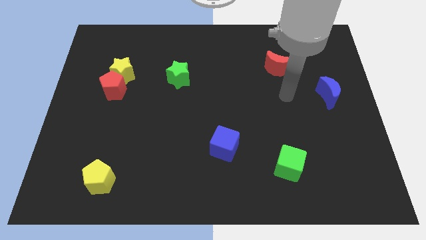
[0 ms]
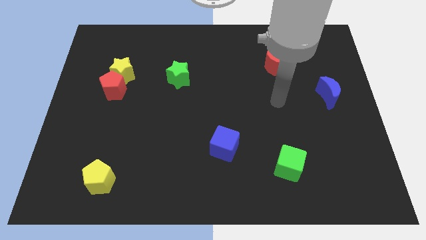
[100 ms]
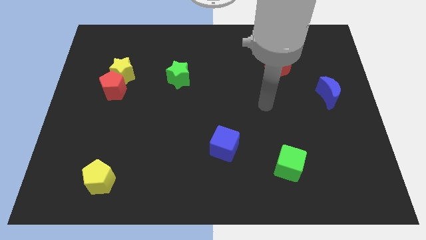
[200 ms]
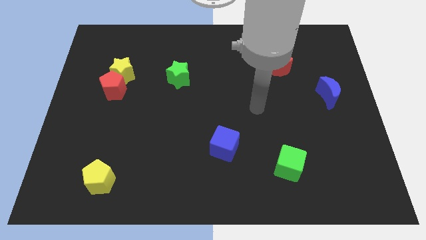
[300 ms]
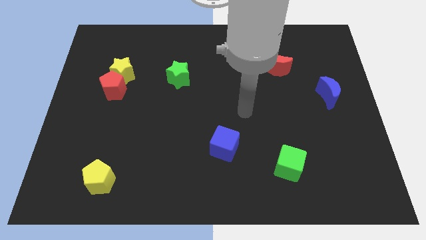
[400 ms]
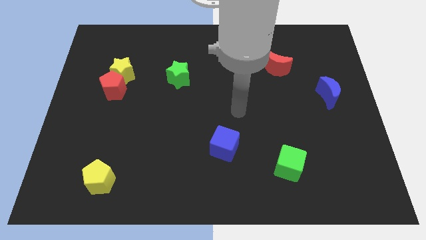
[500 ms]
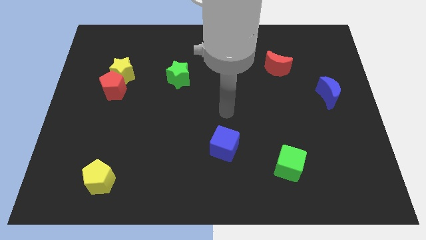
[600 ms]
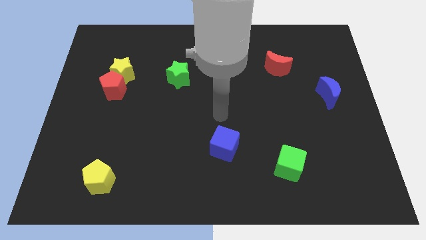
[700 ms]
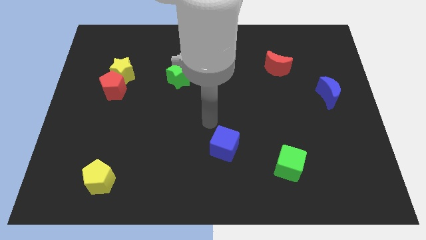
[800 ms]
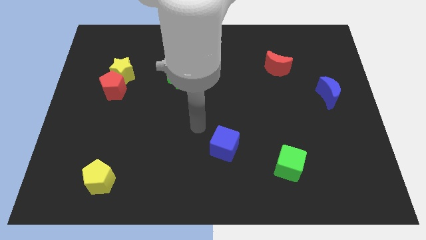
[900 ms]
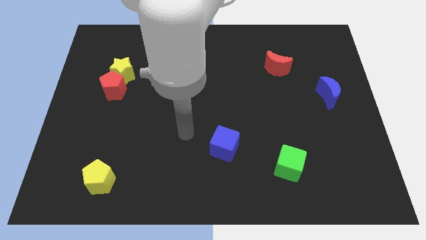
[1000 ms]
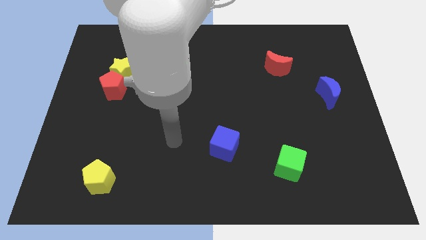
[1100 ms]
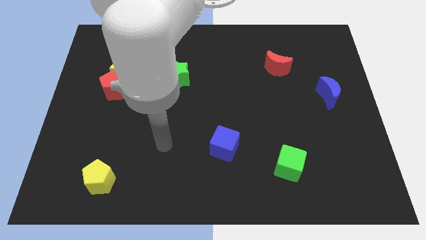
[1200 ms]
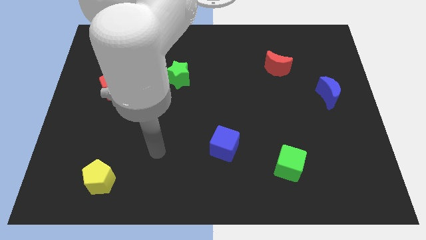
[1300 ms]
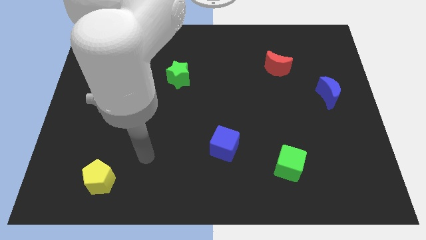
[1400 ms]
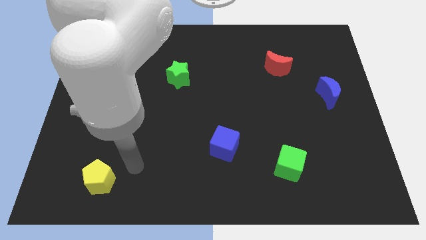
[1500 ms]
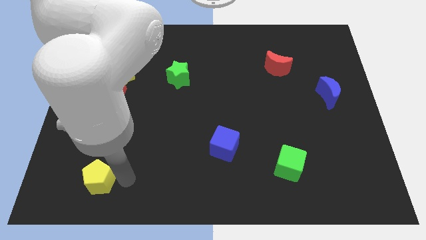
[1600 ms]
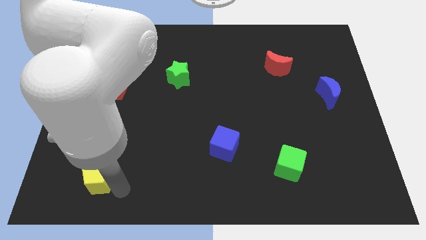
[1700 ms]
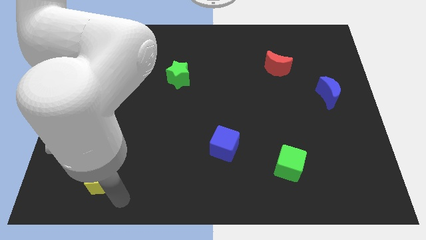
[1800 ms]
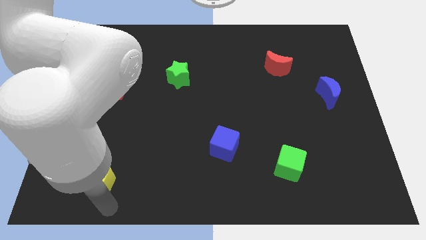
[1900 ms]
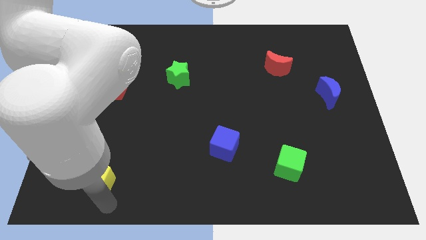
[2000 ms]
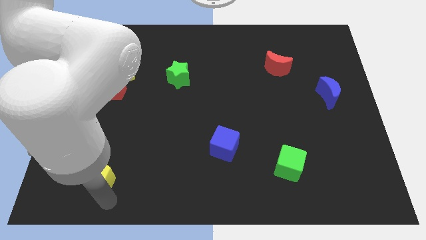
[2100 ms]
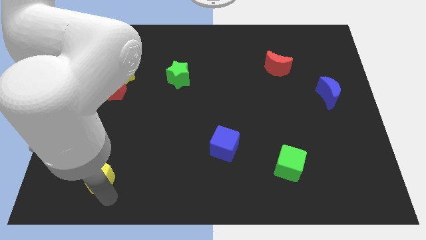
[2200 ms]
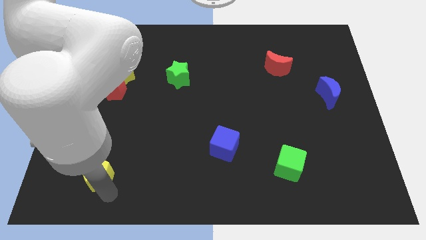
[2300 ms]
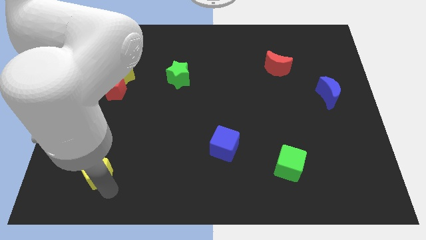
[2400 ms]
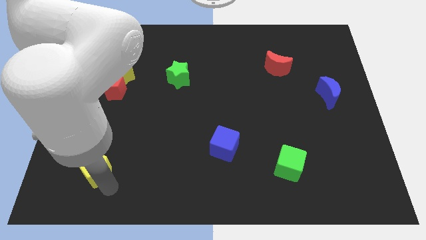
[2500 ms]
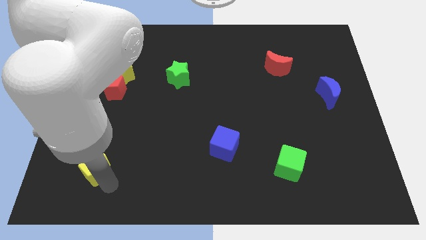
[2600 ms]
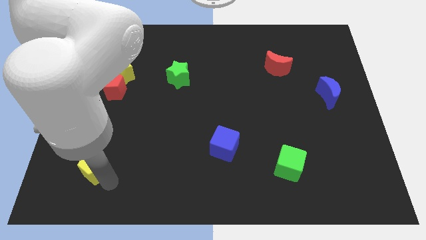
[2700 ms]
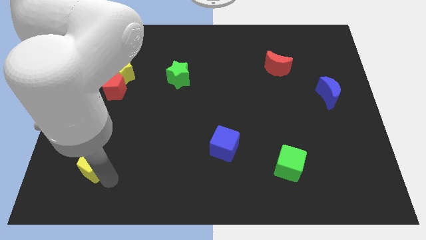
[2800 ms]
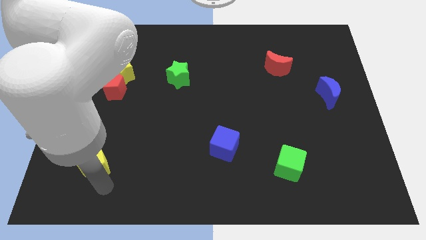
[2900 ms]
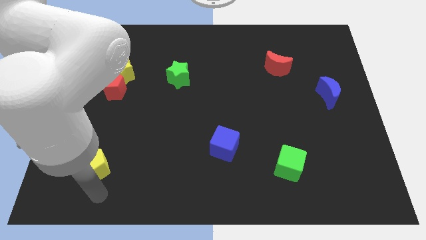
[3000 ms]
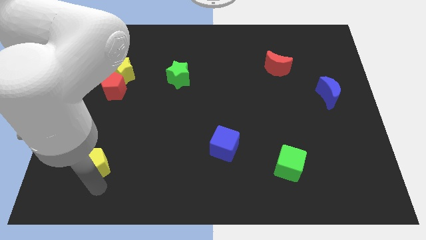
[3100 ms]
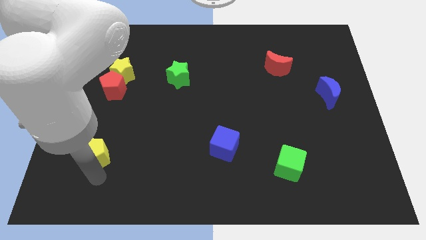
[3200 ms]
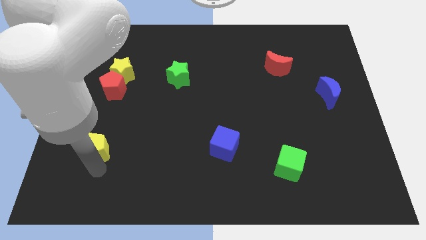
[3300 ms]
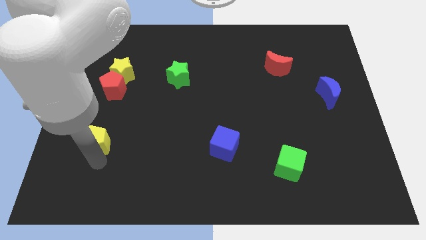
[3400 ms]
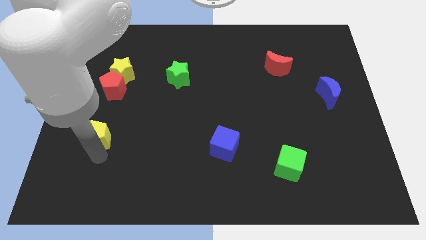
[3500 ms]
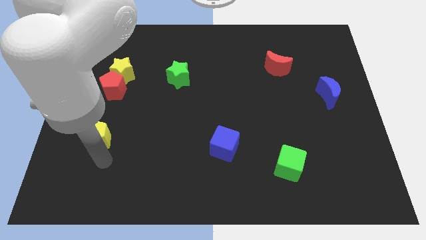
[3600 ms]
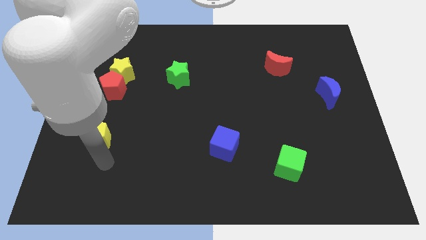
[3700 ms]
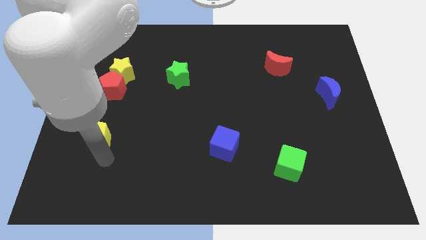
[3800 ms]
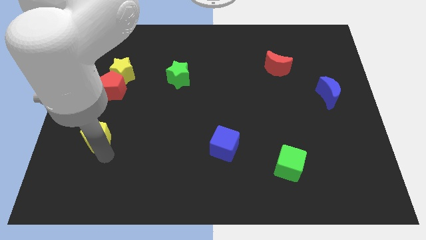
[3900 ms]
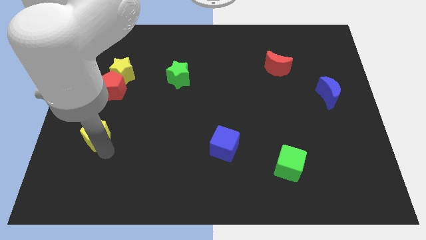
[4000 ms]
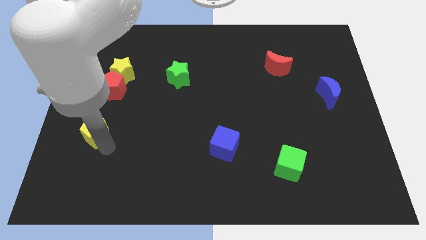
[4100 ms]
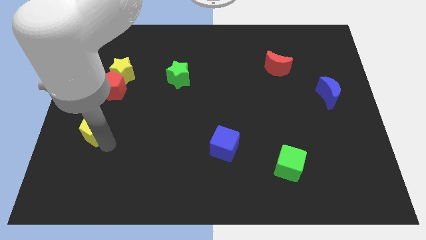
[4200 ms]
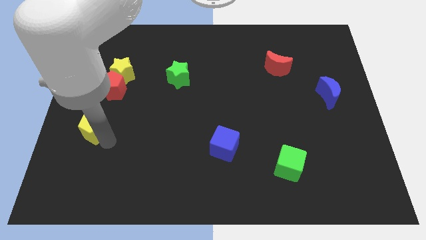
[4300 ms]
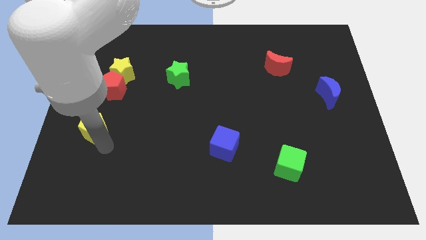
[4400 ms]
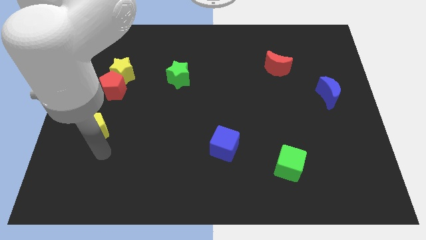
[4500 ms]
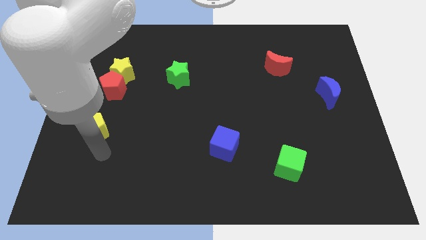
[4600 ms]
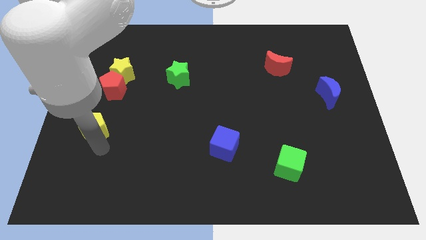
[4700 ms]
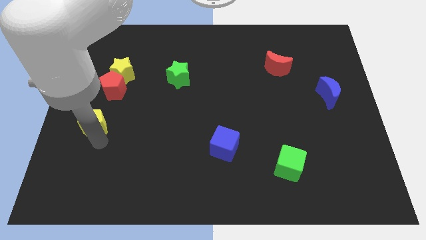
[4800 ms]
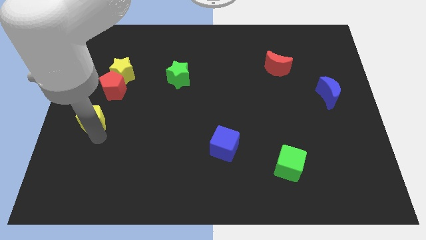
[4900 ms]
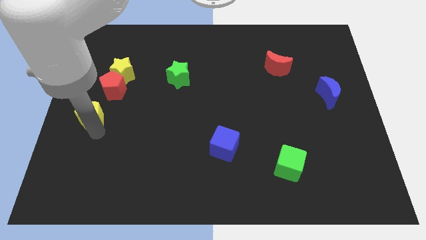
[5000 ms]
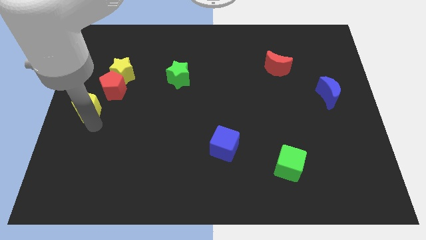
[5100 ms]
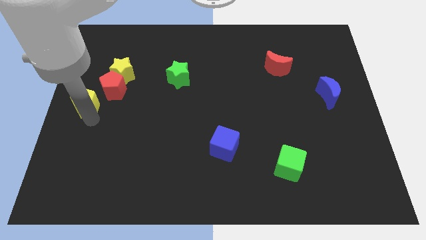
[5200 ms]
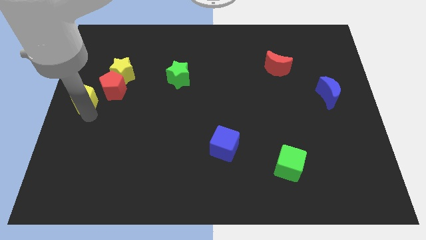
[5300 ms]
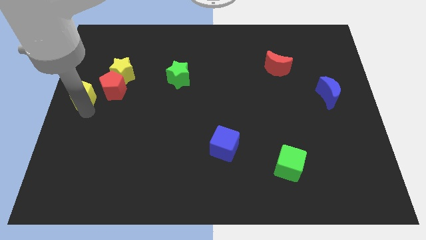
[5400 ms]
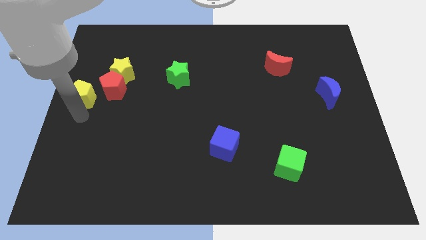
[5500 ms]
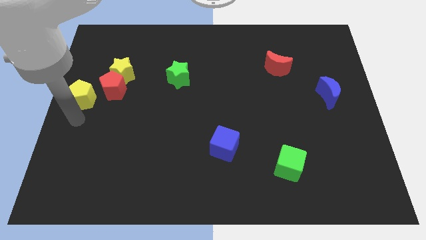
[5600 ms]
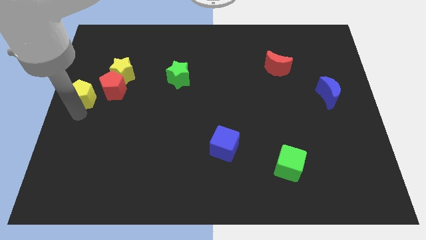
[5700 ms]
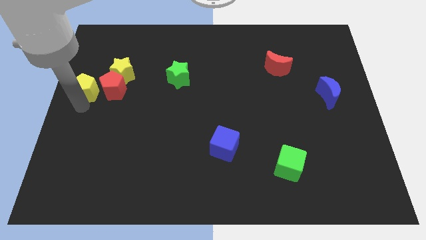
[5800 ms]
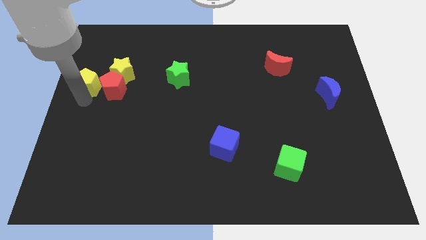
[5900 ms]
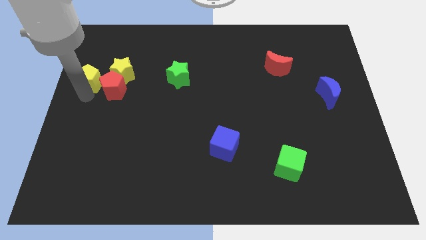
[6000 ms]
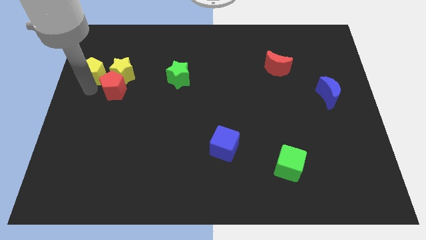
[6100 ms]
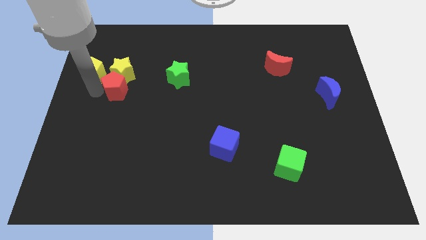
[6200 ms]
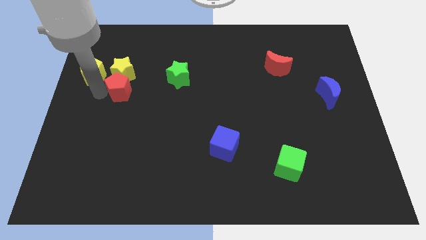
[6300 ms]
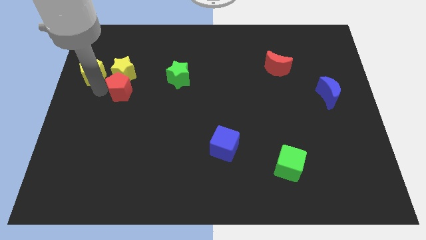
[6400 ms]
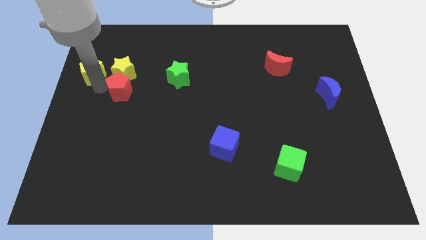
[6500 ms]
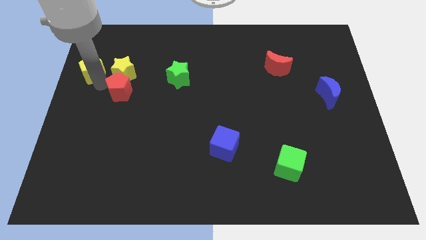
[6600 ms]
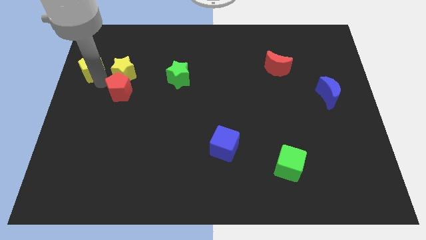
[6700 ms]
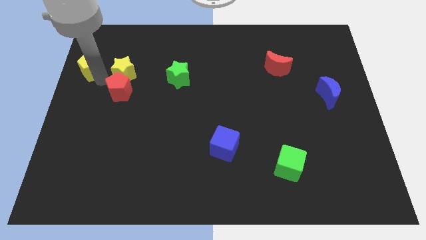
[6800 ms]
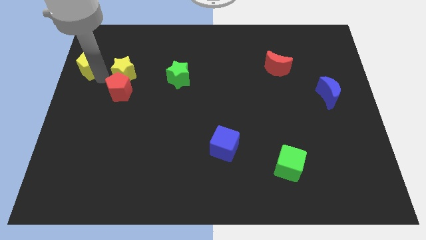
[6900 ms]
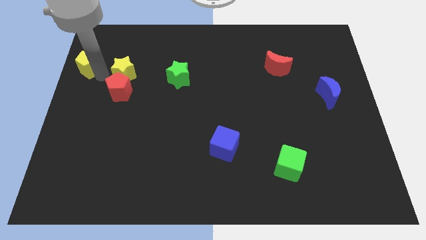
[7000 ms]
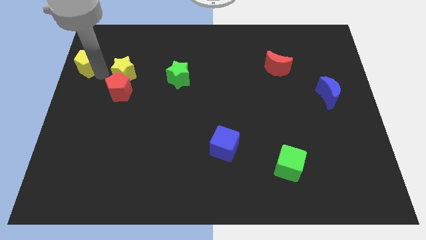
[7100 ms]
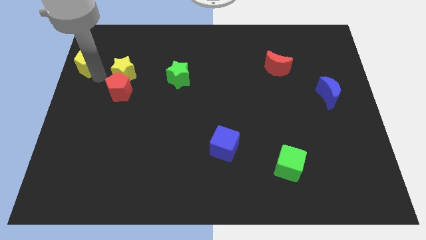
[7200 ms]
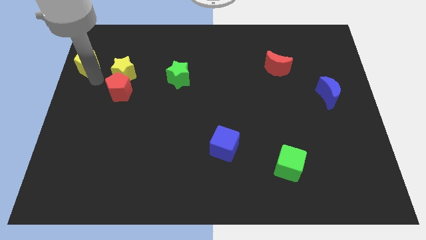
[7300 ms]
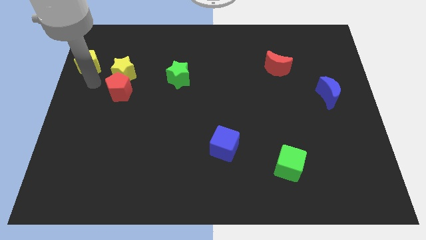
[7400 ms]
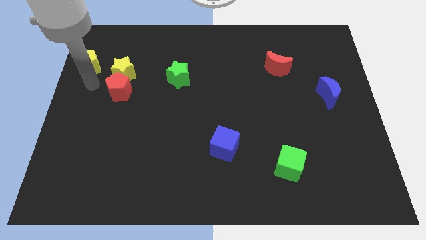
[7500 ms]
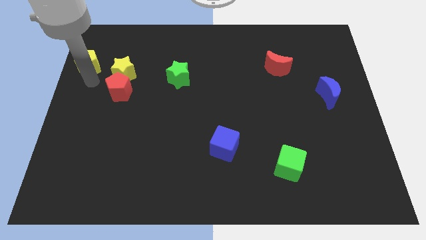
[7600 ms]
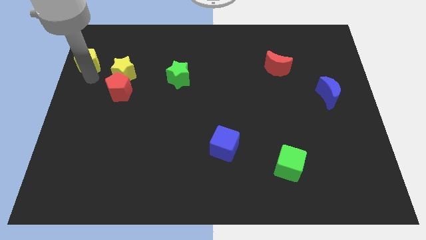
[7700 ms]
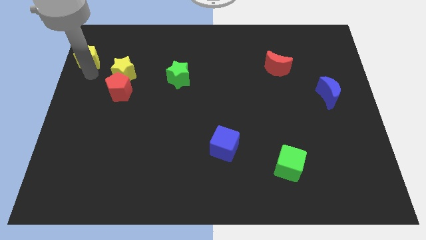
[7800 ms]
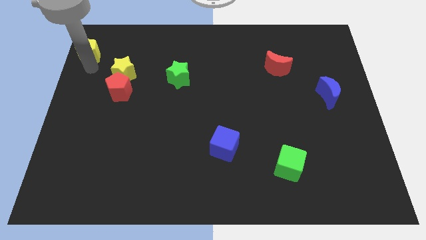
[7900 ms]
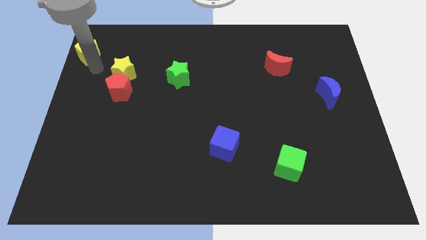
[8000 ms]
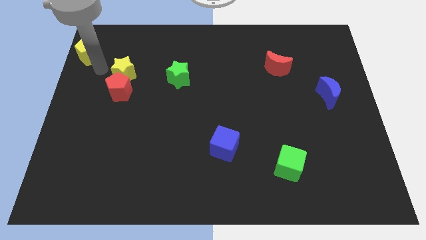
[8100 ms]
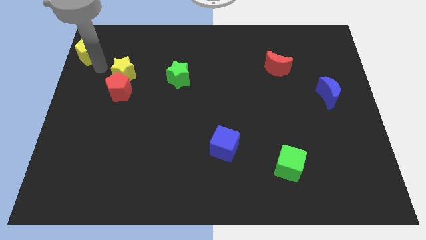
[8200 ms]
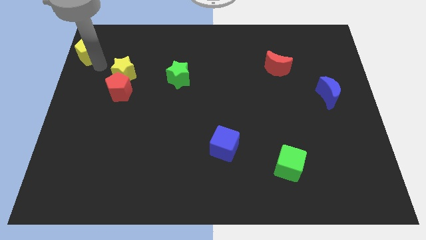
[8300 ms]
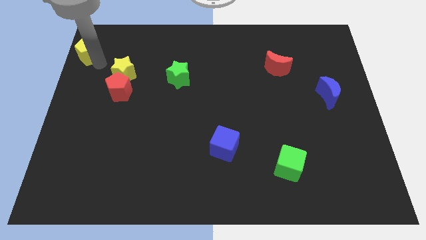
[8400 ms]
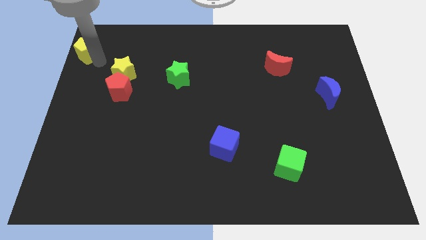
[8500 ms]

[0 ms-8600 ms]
put the yellow pentagon to the top left
